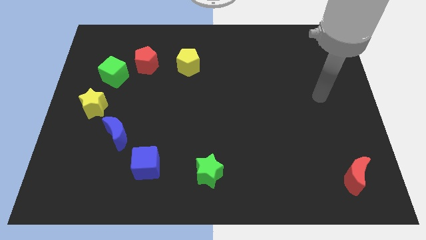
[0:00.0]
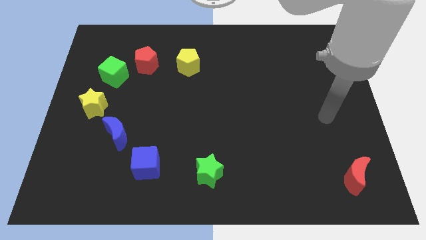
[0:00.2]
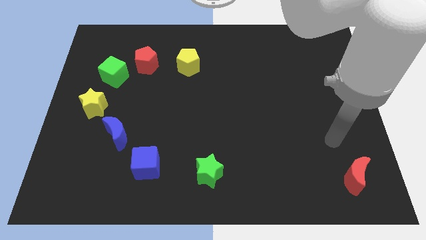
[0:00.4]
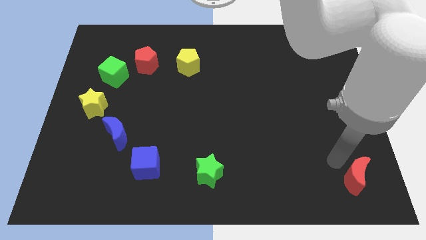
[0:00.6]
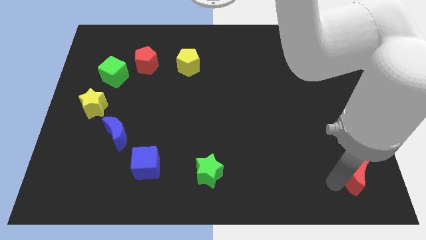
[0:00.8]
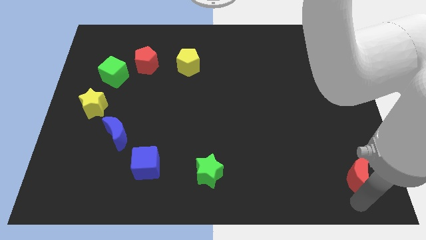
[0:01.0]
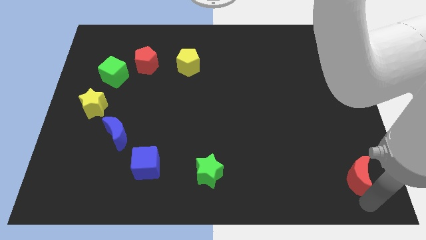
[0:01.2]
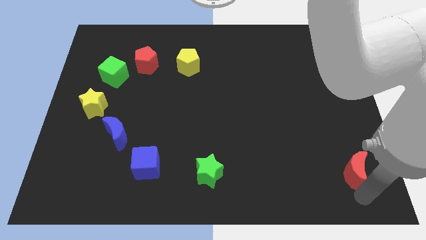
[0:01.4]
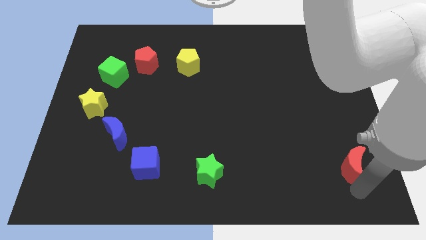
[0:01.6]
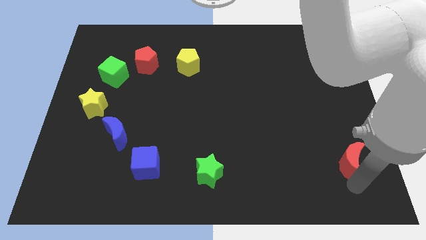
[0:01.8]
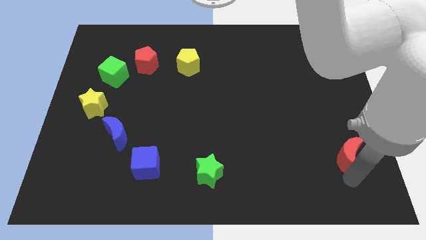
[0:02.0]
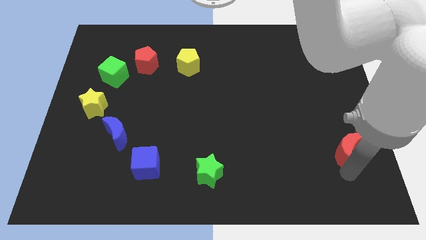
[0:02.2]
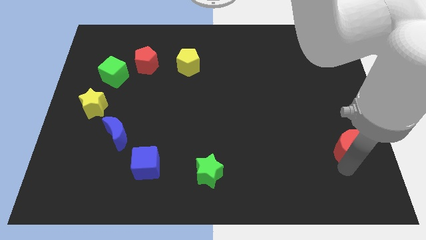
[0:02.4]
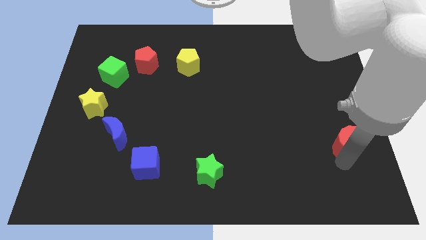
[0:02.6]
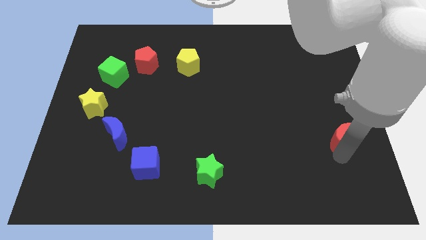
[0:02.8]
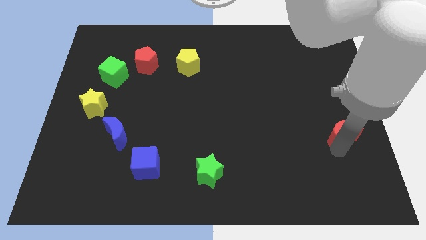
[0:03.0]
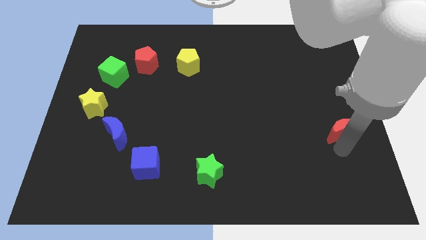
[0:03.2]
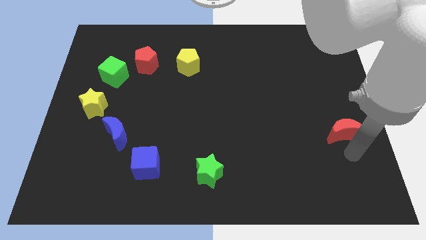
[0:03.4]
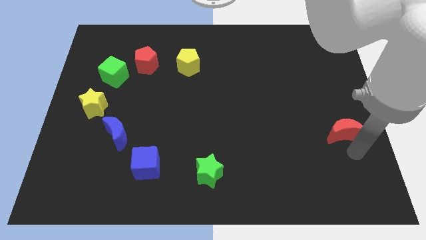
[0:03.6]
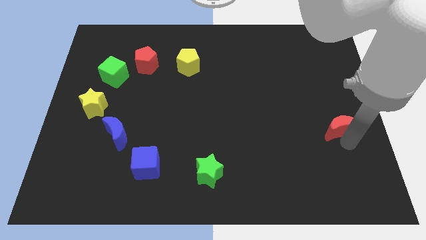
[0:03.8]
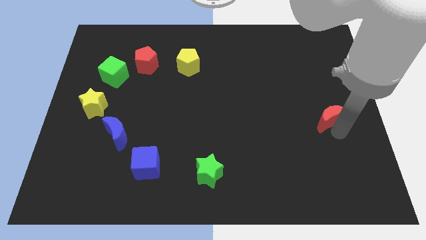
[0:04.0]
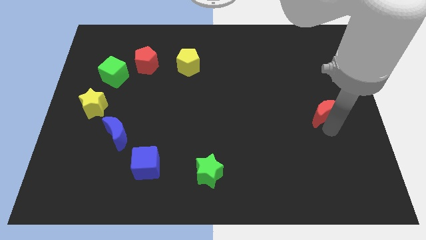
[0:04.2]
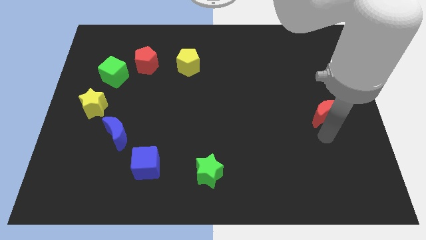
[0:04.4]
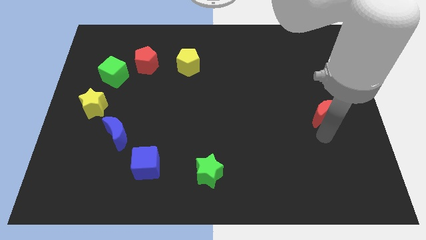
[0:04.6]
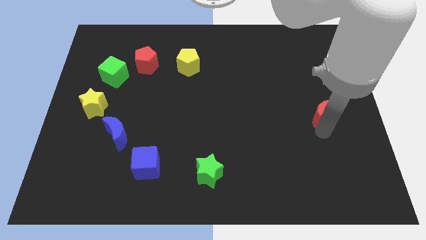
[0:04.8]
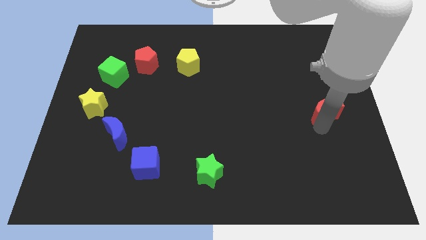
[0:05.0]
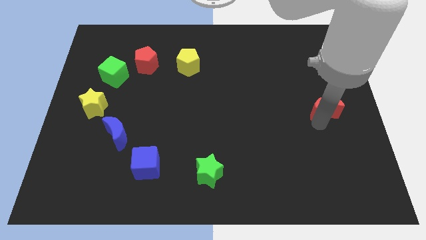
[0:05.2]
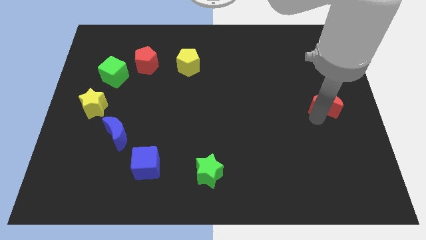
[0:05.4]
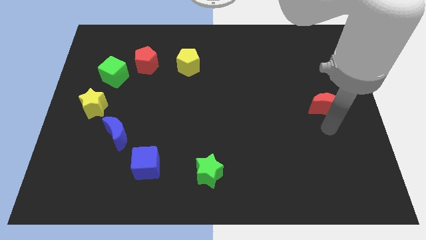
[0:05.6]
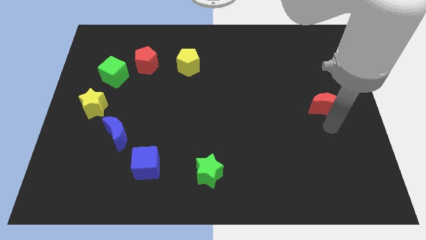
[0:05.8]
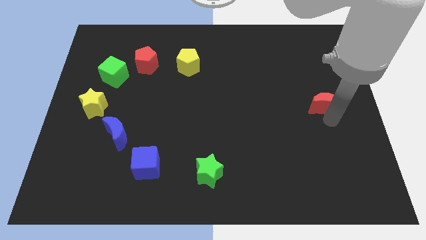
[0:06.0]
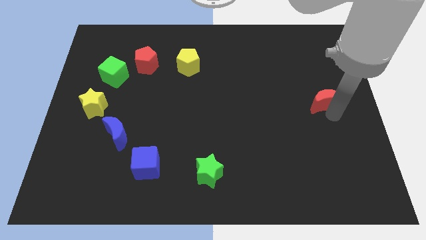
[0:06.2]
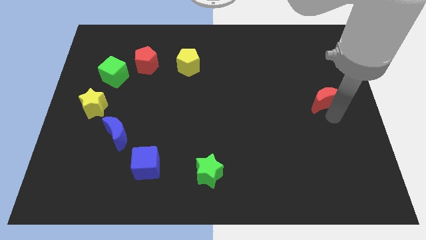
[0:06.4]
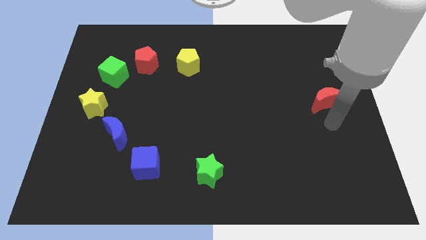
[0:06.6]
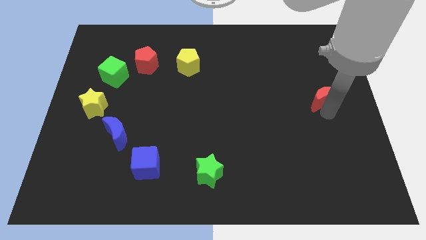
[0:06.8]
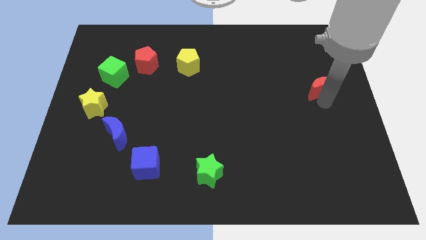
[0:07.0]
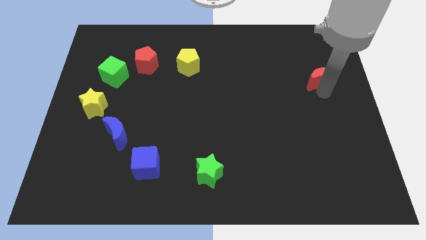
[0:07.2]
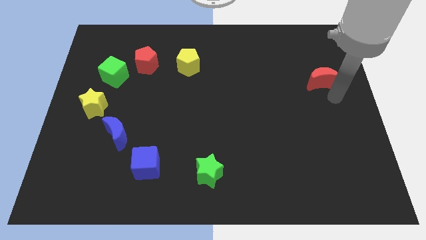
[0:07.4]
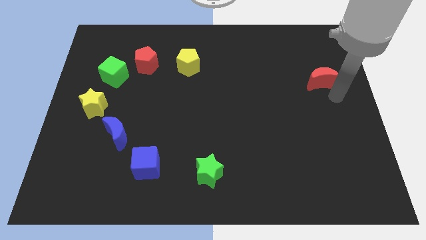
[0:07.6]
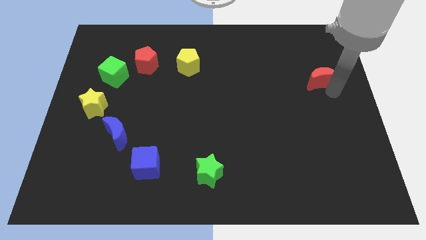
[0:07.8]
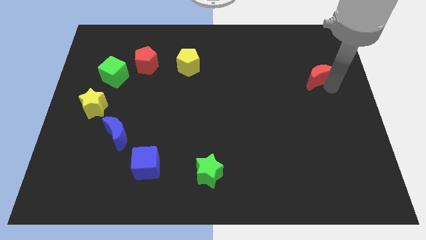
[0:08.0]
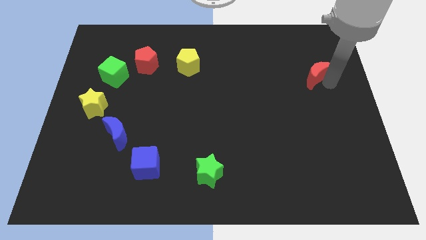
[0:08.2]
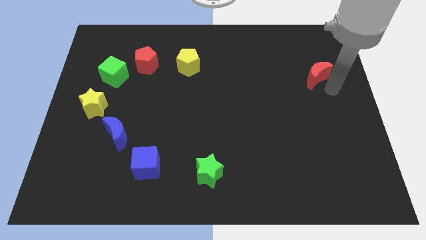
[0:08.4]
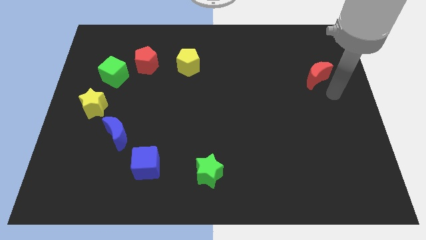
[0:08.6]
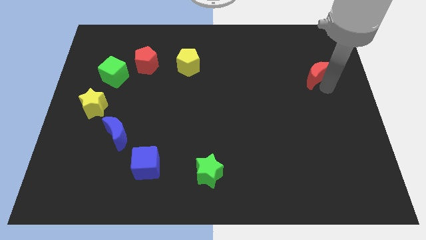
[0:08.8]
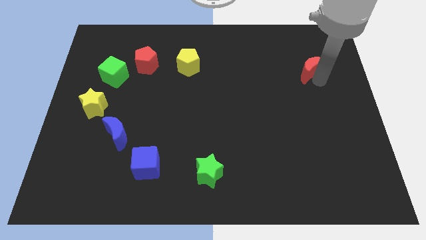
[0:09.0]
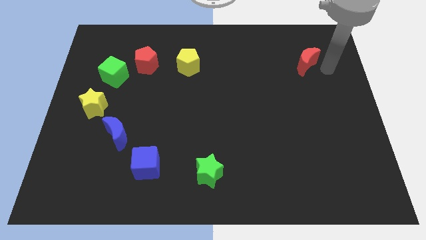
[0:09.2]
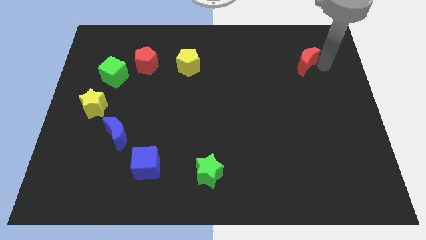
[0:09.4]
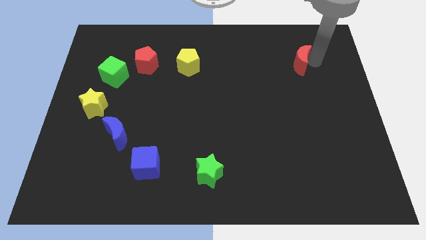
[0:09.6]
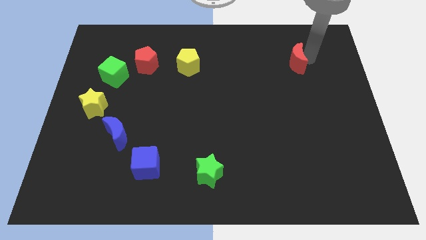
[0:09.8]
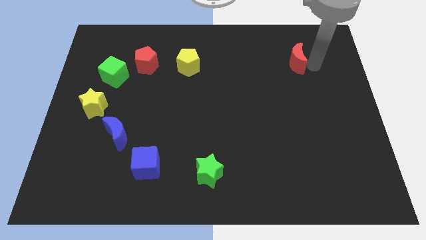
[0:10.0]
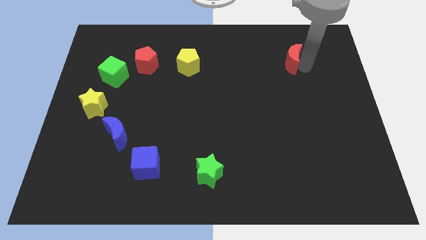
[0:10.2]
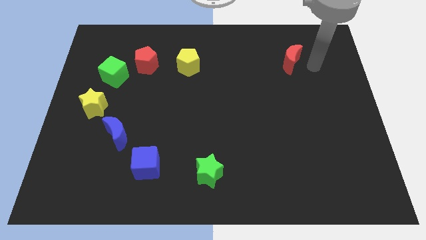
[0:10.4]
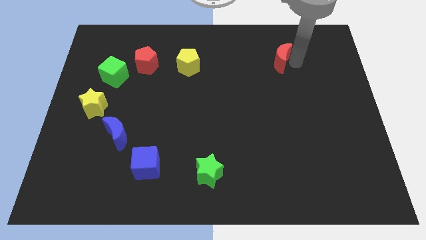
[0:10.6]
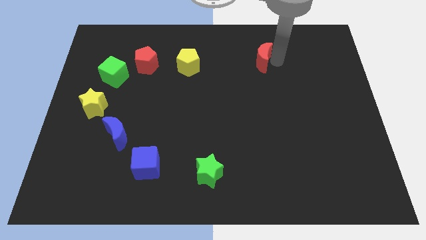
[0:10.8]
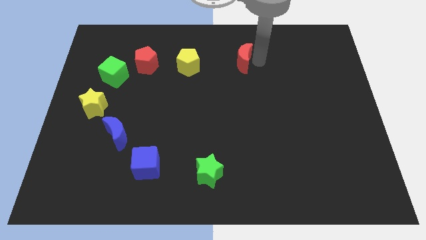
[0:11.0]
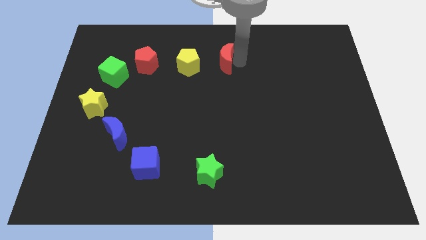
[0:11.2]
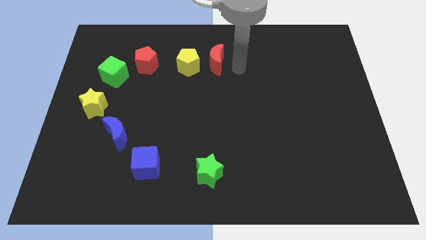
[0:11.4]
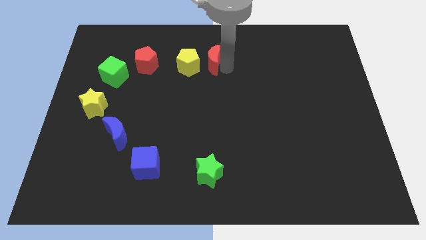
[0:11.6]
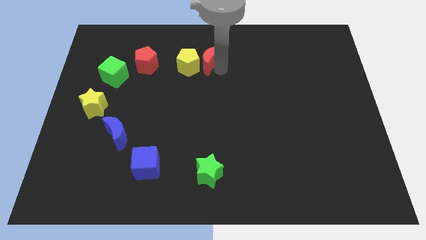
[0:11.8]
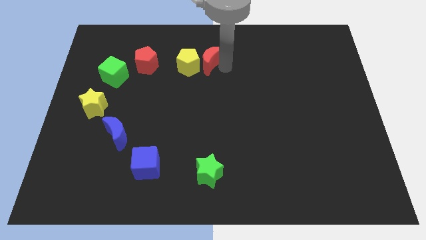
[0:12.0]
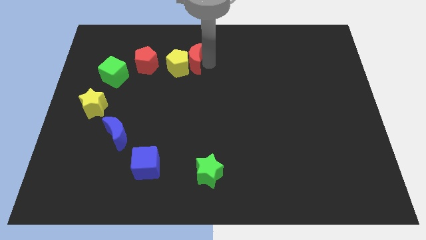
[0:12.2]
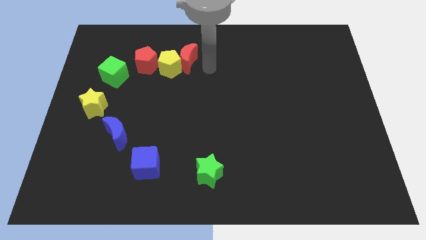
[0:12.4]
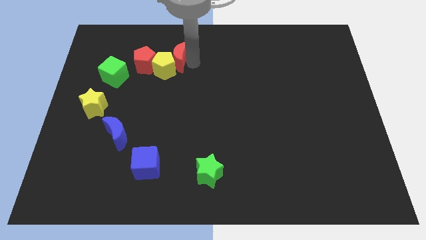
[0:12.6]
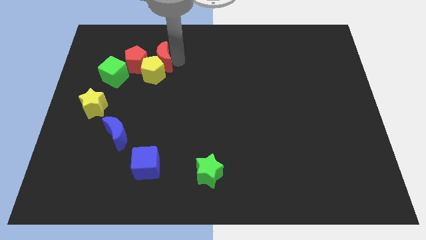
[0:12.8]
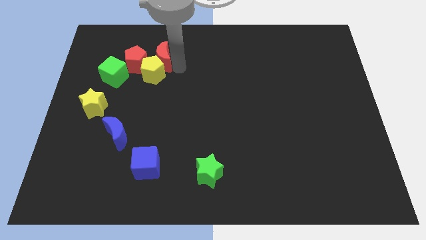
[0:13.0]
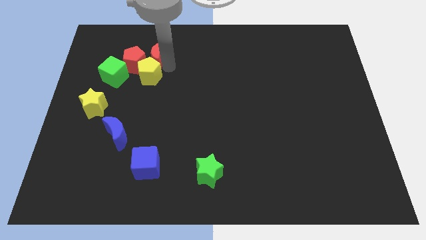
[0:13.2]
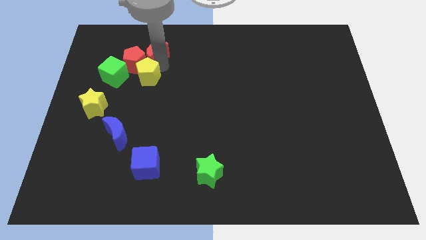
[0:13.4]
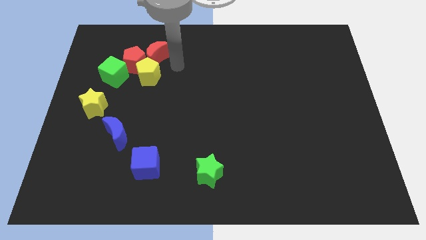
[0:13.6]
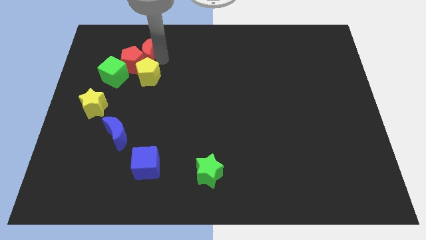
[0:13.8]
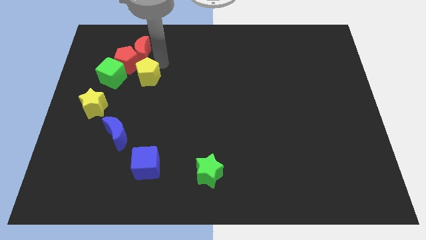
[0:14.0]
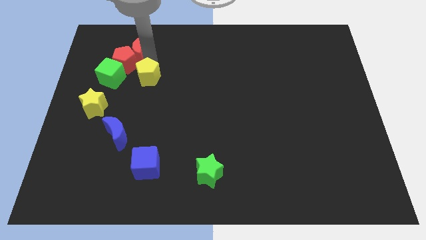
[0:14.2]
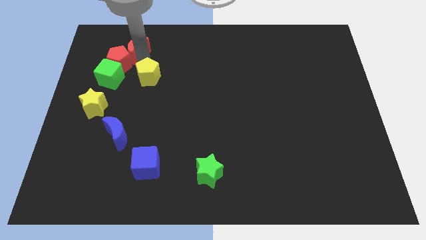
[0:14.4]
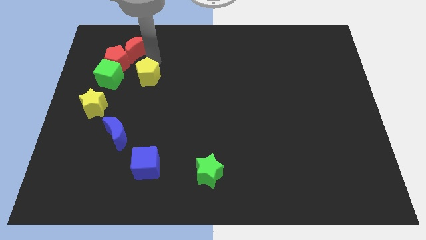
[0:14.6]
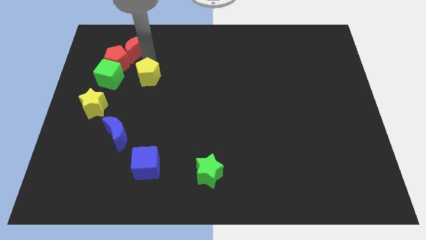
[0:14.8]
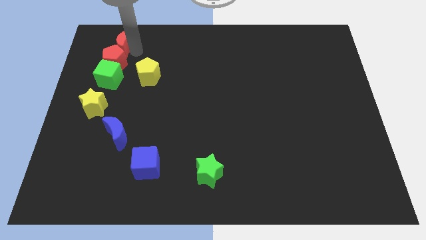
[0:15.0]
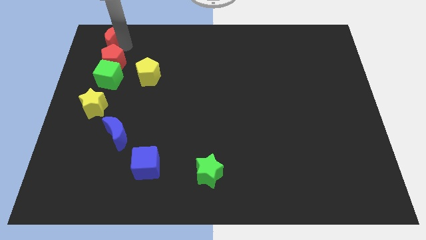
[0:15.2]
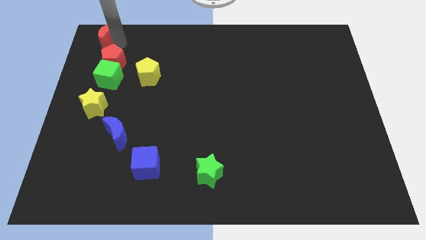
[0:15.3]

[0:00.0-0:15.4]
put the red moon to the top left
